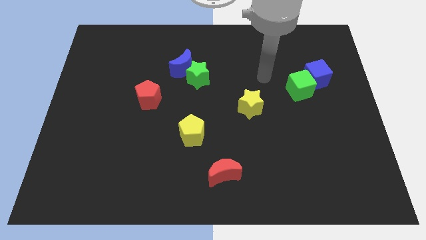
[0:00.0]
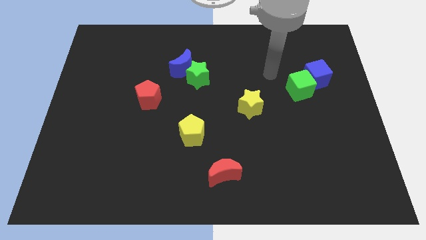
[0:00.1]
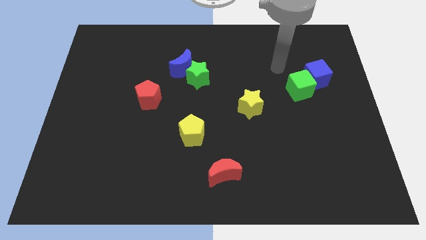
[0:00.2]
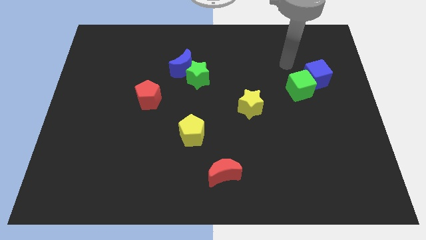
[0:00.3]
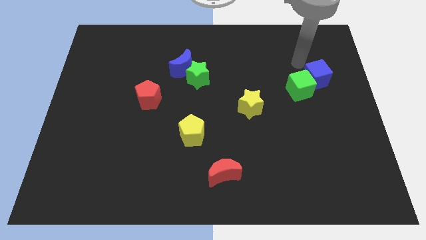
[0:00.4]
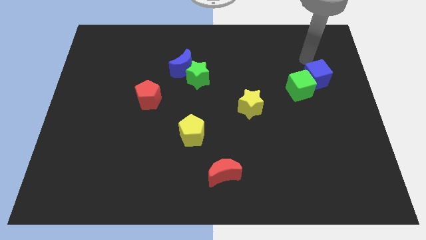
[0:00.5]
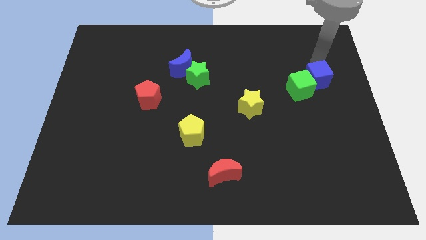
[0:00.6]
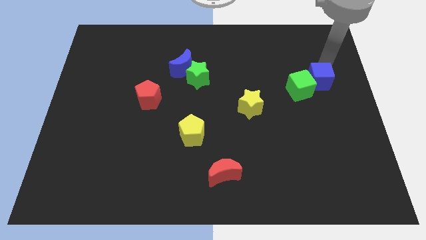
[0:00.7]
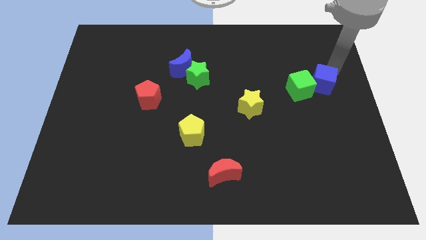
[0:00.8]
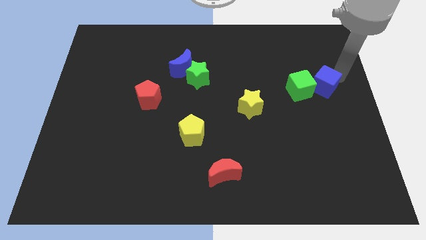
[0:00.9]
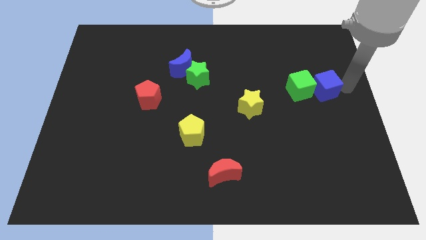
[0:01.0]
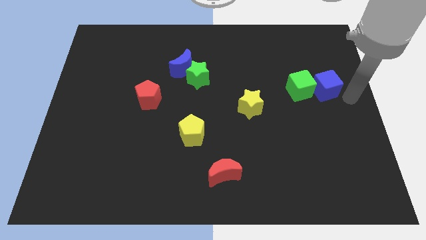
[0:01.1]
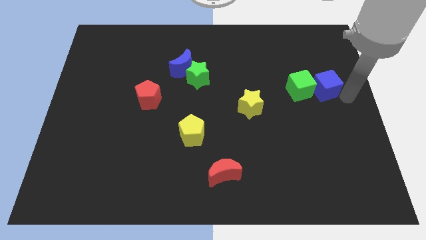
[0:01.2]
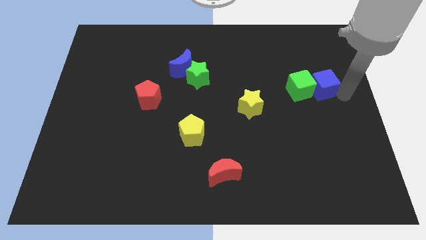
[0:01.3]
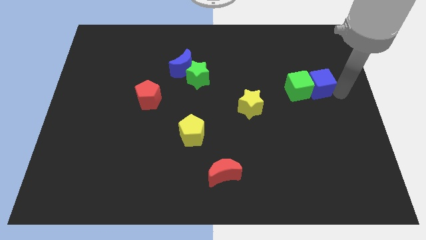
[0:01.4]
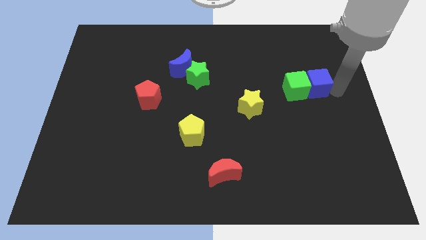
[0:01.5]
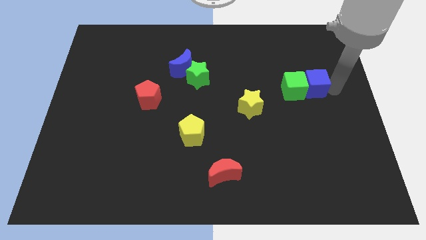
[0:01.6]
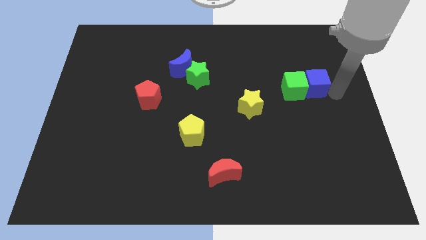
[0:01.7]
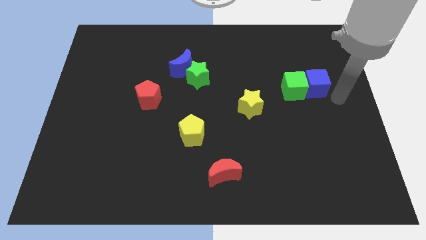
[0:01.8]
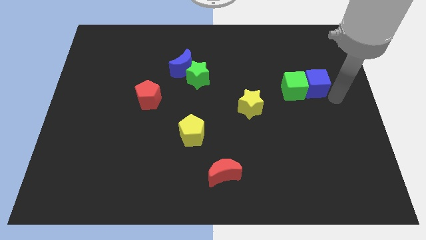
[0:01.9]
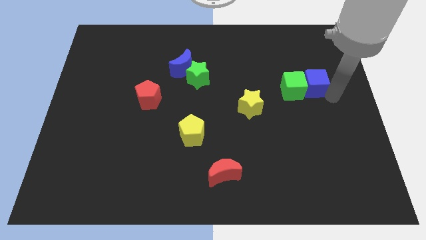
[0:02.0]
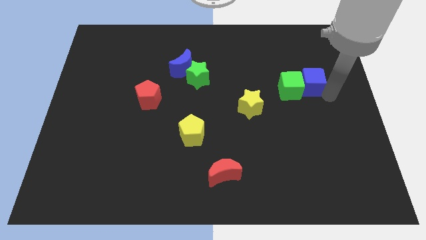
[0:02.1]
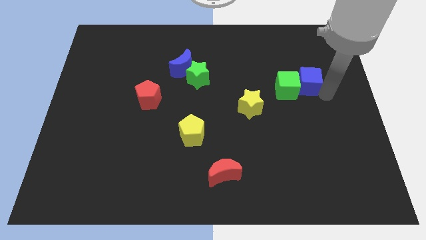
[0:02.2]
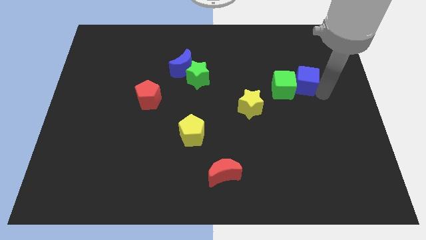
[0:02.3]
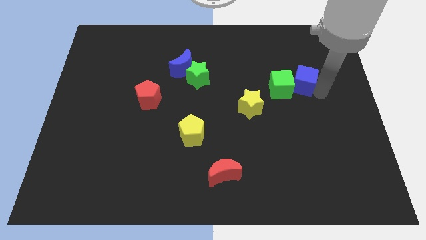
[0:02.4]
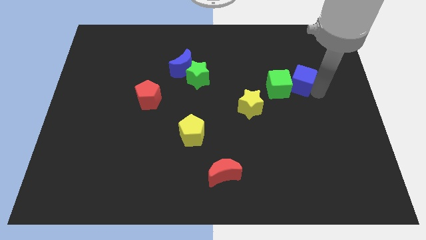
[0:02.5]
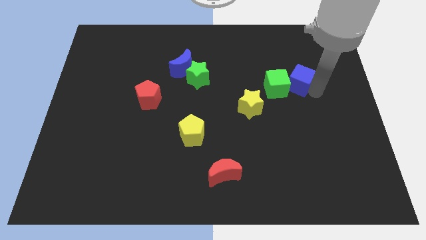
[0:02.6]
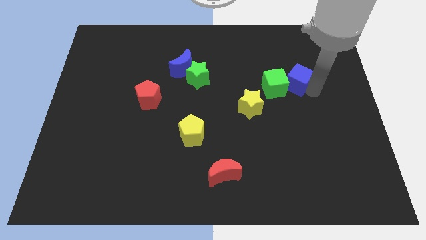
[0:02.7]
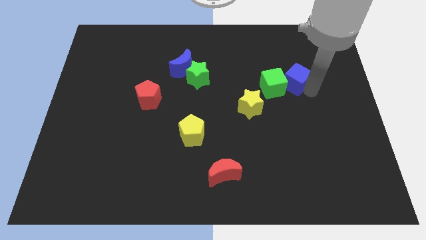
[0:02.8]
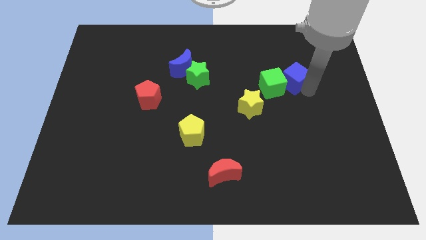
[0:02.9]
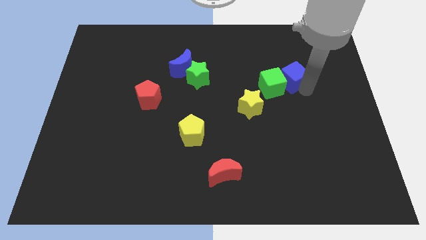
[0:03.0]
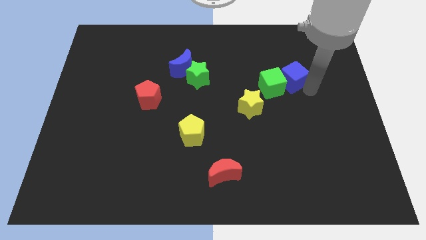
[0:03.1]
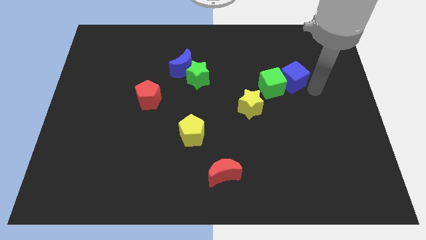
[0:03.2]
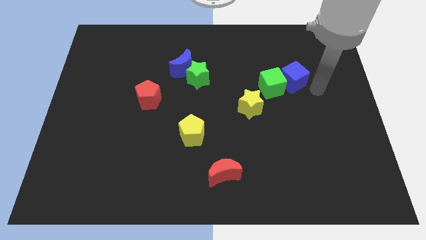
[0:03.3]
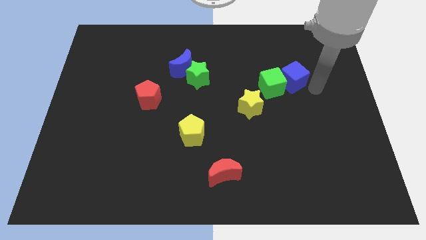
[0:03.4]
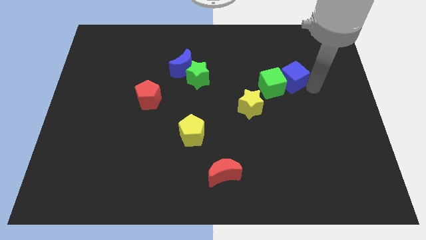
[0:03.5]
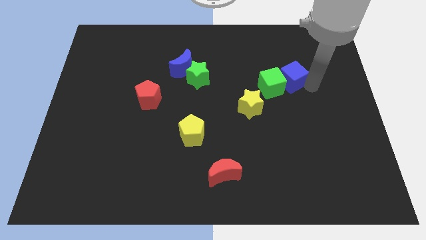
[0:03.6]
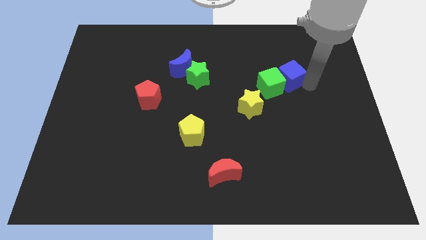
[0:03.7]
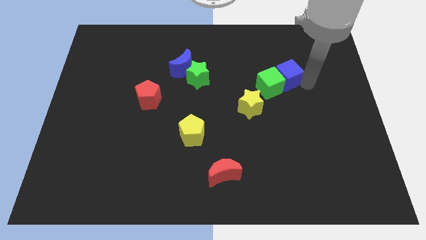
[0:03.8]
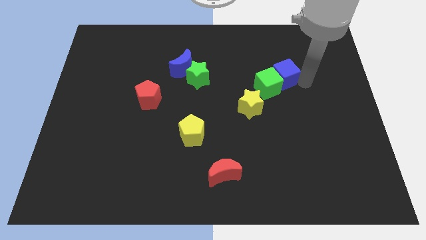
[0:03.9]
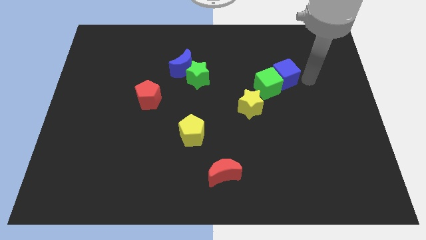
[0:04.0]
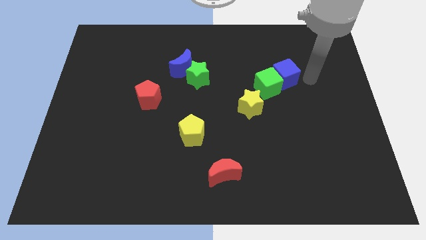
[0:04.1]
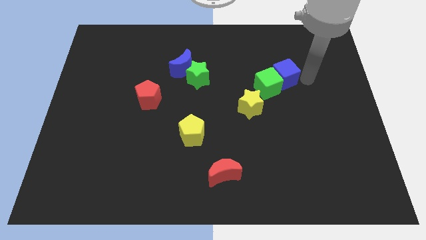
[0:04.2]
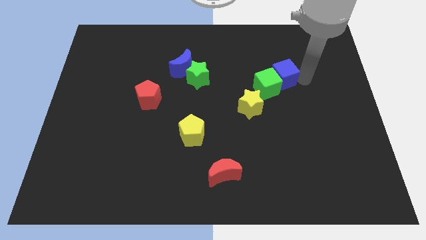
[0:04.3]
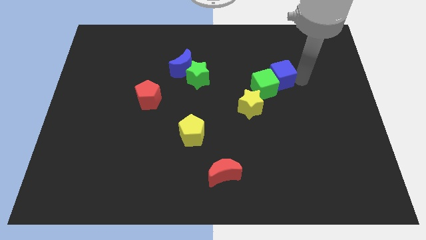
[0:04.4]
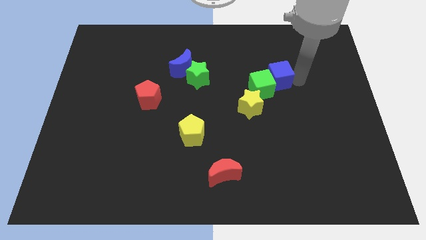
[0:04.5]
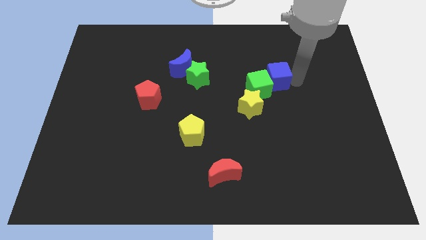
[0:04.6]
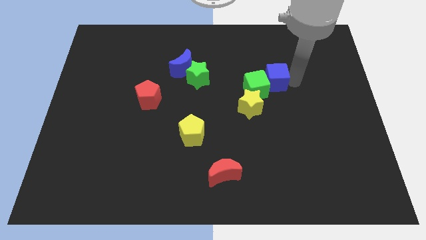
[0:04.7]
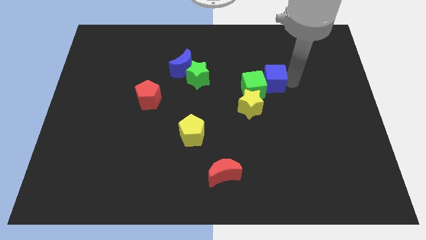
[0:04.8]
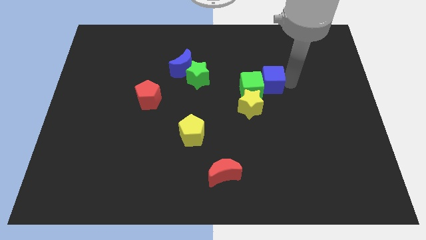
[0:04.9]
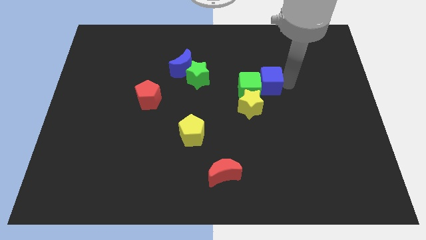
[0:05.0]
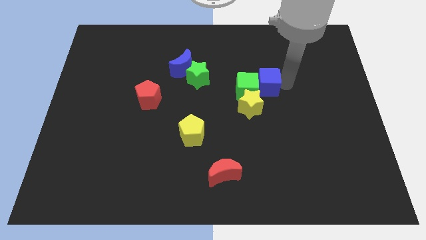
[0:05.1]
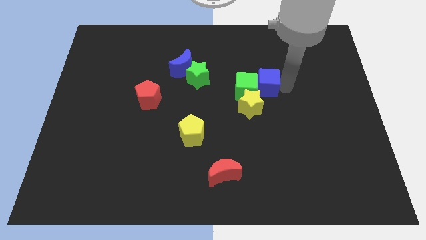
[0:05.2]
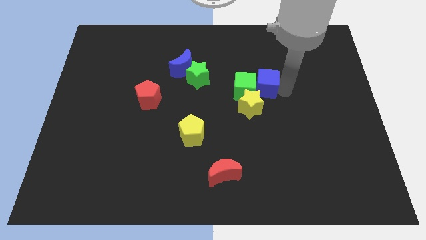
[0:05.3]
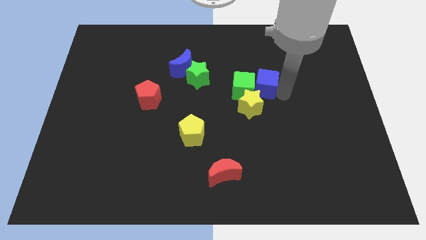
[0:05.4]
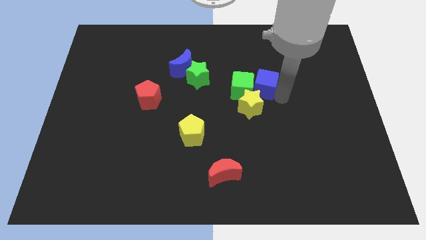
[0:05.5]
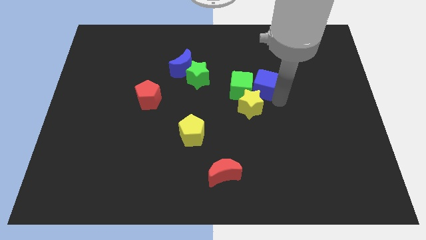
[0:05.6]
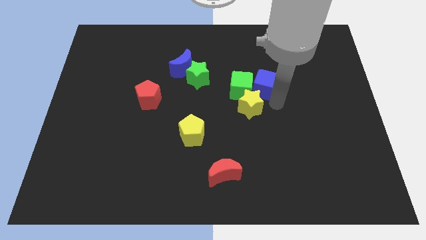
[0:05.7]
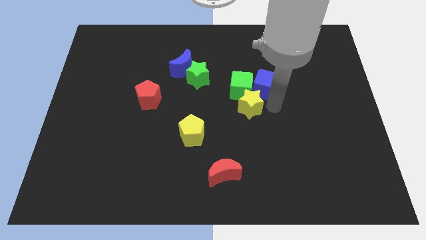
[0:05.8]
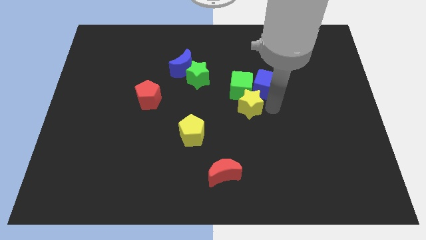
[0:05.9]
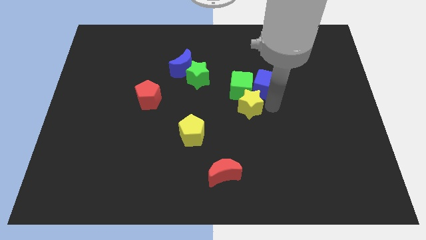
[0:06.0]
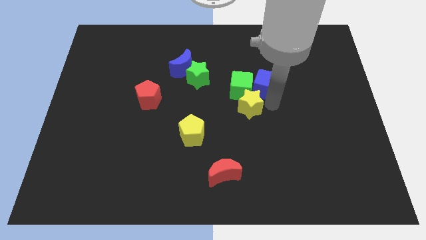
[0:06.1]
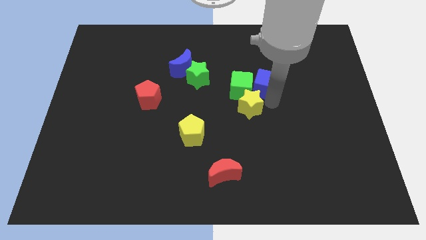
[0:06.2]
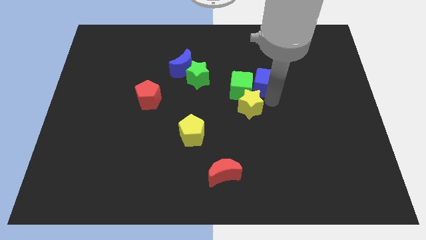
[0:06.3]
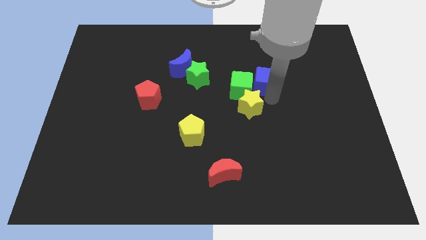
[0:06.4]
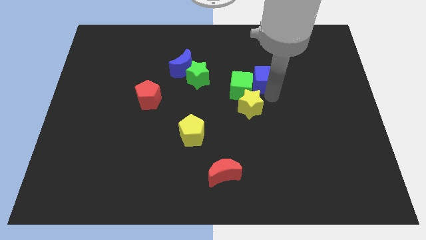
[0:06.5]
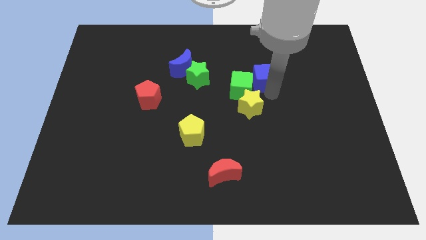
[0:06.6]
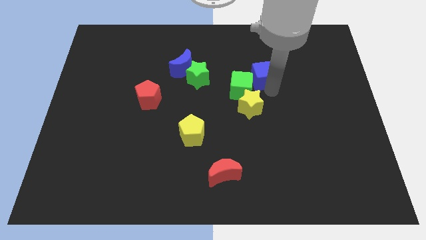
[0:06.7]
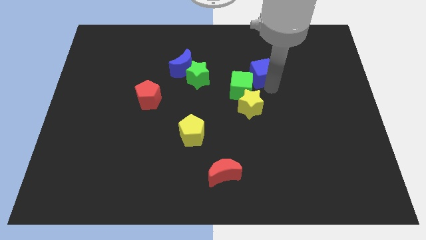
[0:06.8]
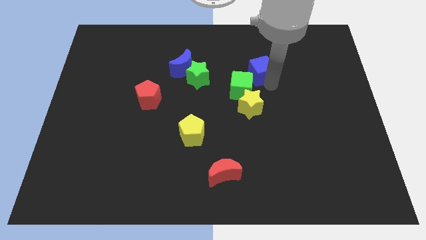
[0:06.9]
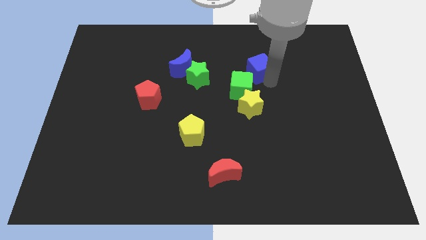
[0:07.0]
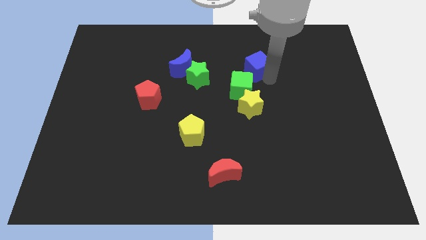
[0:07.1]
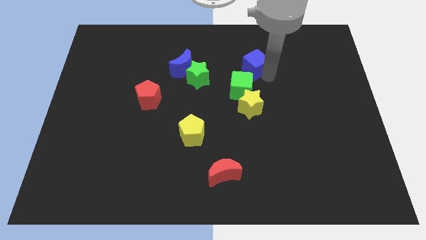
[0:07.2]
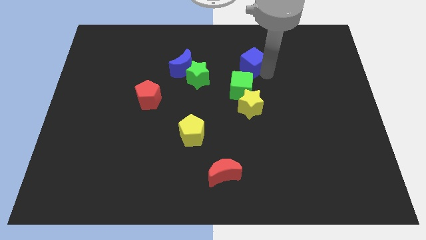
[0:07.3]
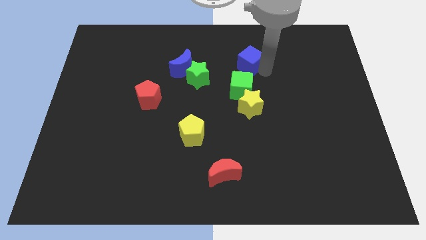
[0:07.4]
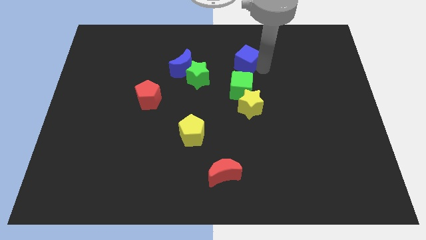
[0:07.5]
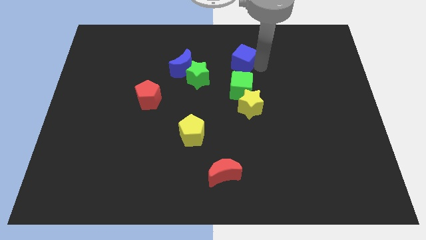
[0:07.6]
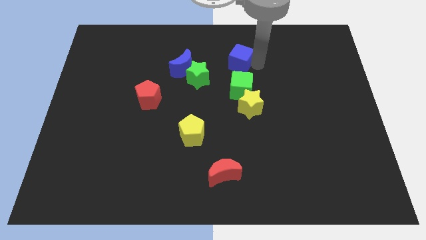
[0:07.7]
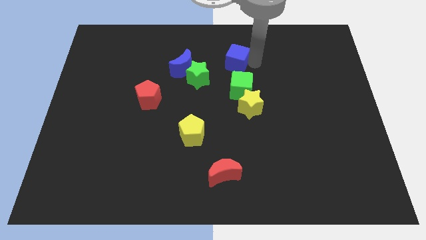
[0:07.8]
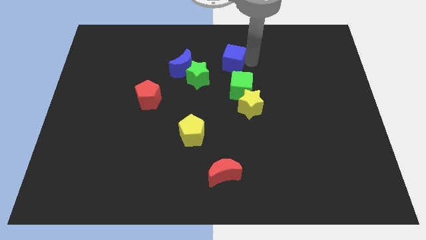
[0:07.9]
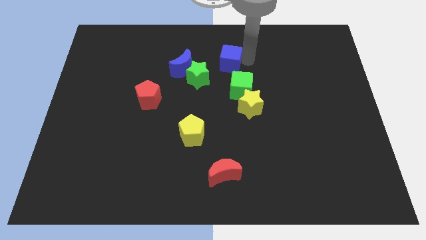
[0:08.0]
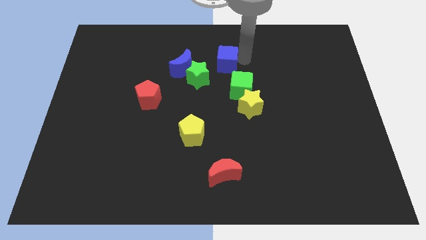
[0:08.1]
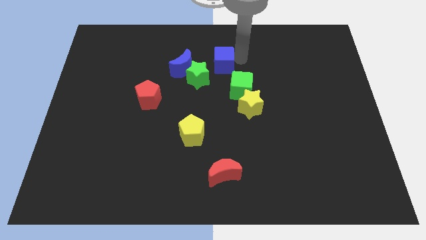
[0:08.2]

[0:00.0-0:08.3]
slide the blue cube to the center
